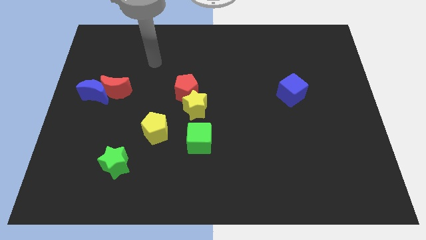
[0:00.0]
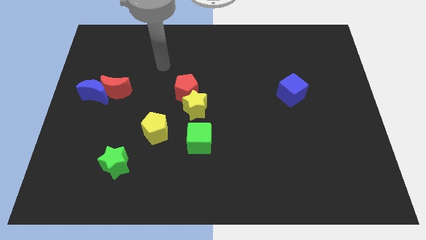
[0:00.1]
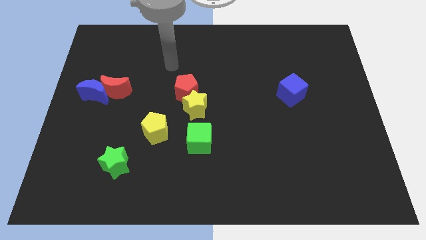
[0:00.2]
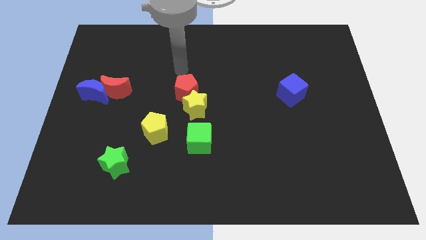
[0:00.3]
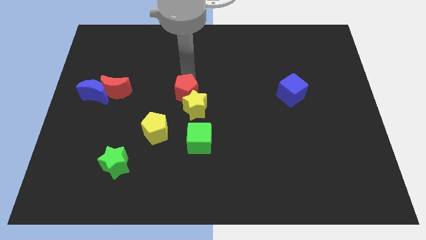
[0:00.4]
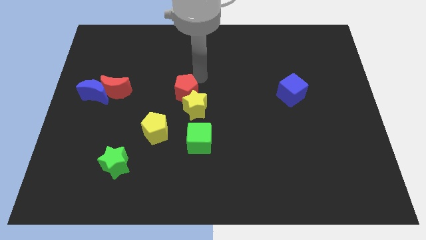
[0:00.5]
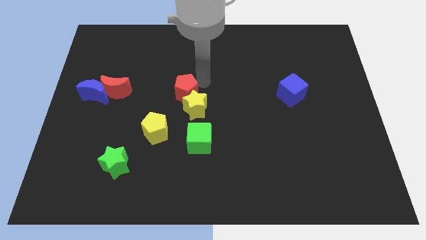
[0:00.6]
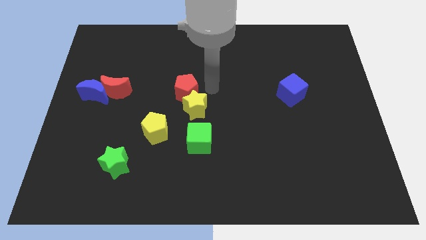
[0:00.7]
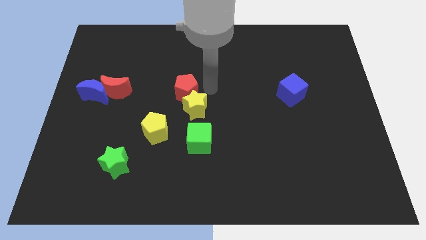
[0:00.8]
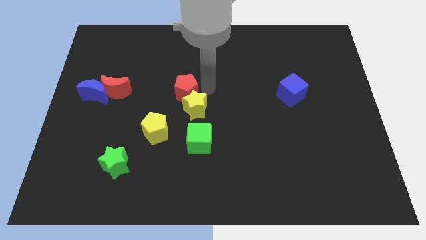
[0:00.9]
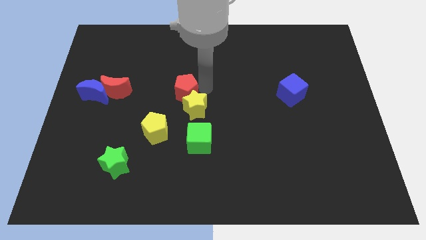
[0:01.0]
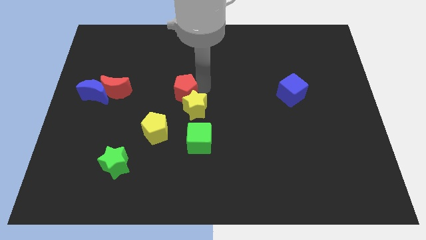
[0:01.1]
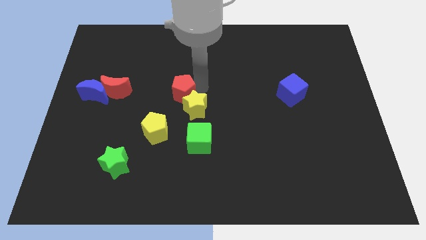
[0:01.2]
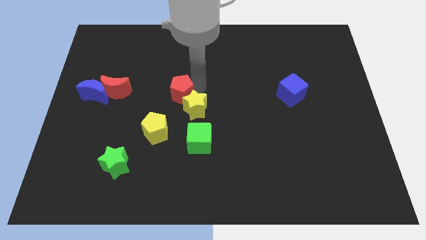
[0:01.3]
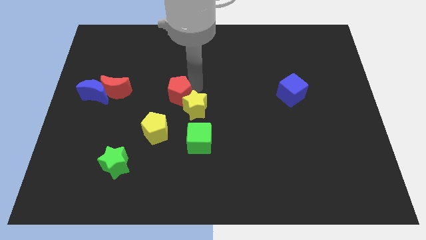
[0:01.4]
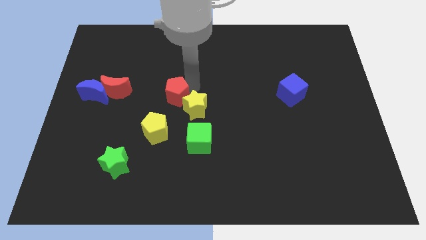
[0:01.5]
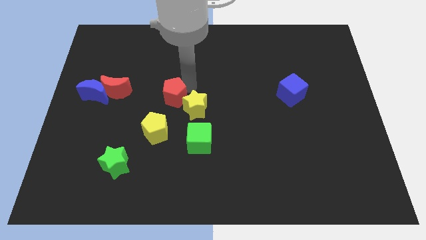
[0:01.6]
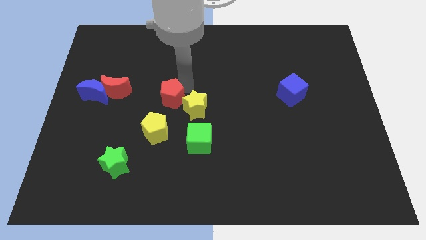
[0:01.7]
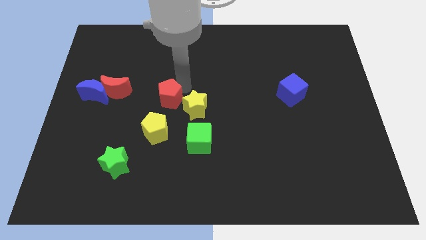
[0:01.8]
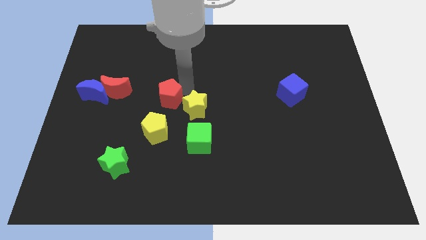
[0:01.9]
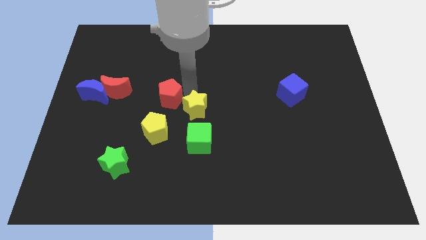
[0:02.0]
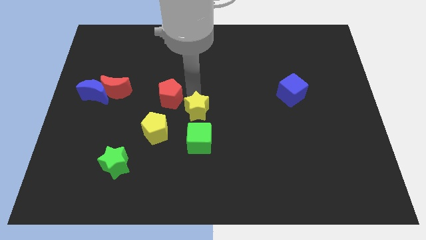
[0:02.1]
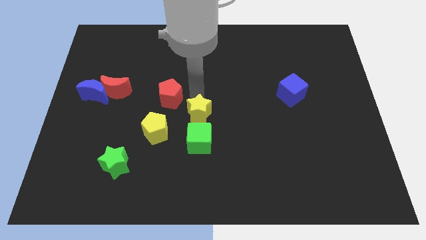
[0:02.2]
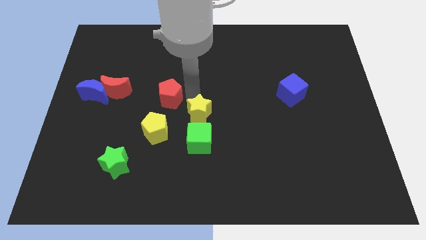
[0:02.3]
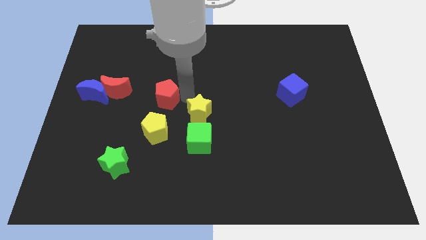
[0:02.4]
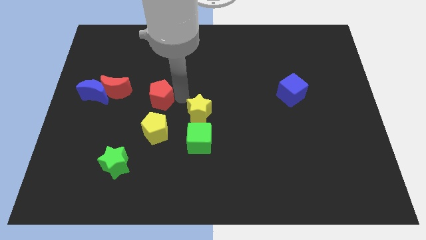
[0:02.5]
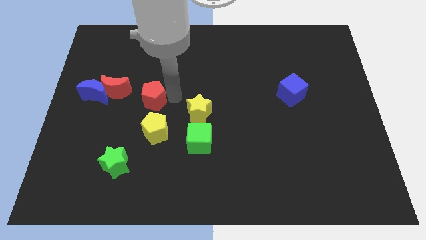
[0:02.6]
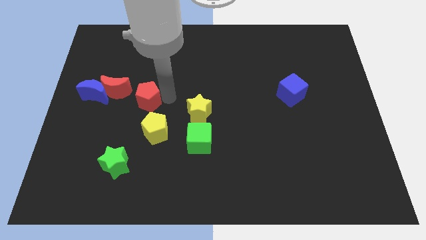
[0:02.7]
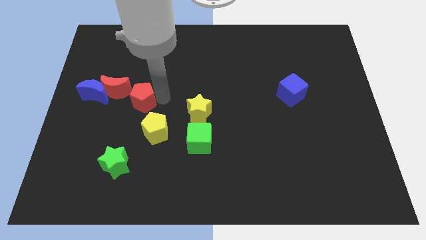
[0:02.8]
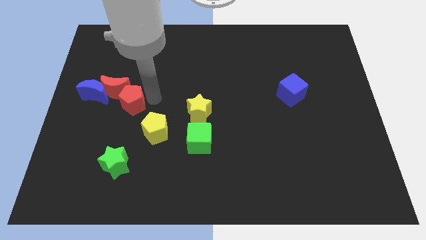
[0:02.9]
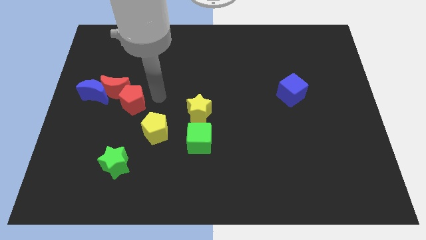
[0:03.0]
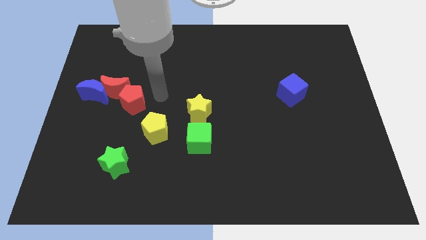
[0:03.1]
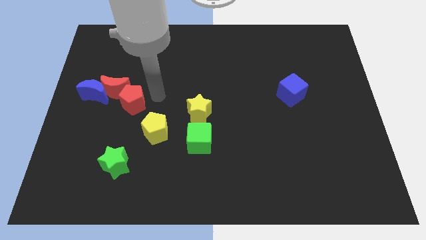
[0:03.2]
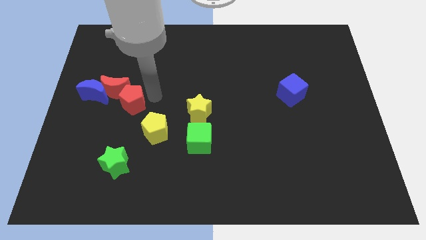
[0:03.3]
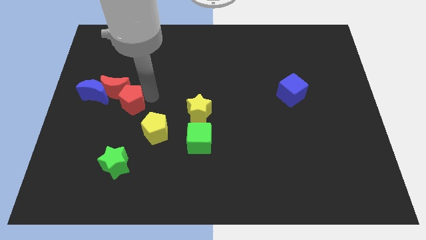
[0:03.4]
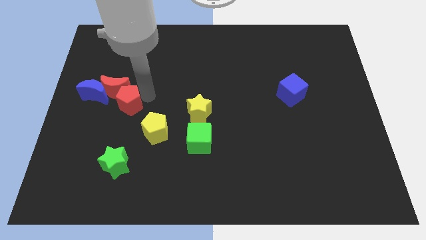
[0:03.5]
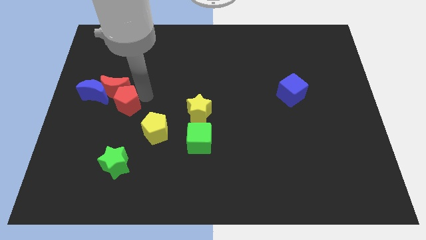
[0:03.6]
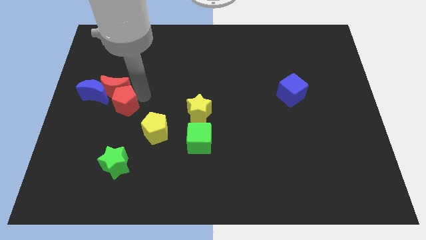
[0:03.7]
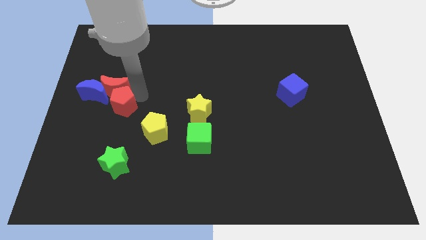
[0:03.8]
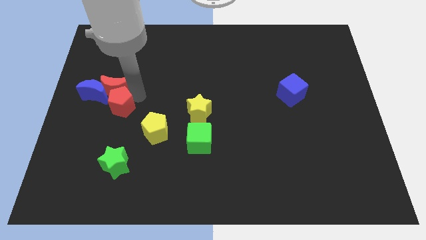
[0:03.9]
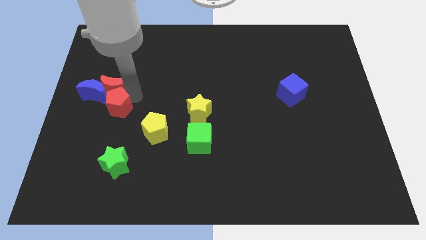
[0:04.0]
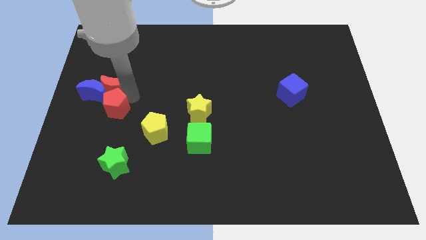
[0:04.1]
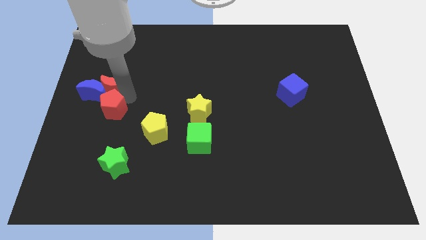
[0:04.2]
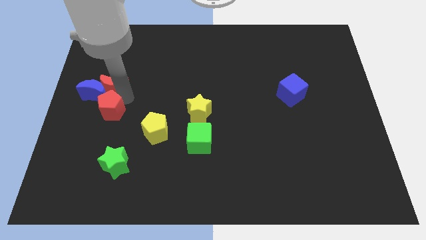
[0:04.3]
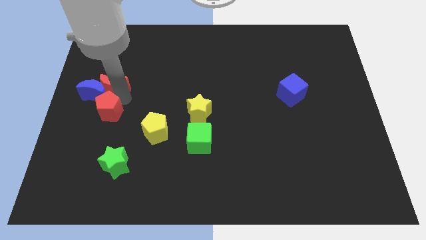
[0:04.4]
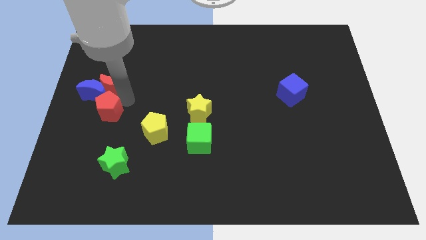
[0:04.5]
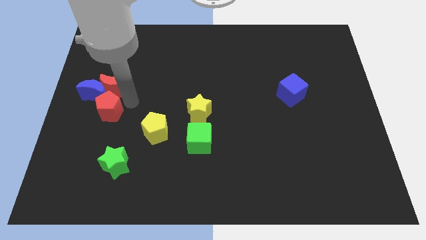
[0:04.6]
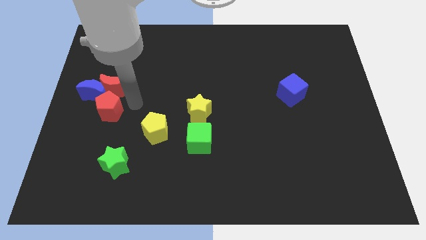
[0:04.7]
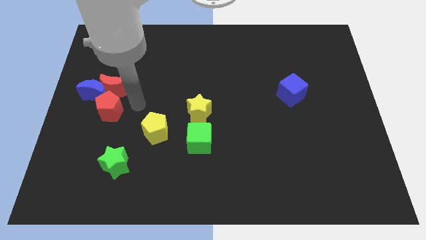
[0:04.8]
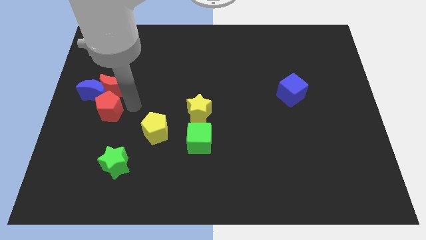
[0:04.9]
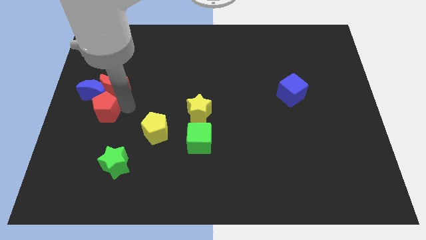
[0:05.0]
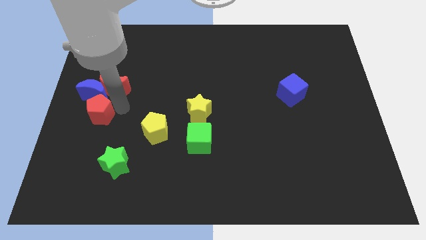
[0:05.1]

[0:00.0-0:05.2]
move the red pentagon to the left side of the board
